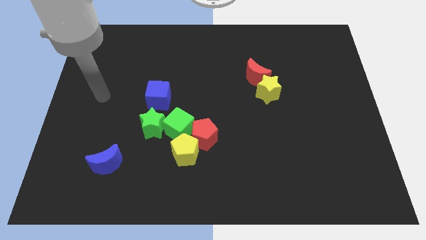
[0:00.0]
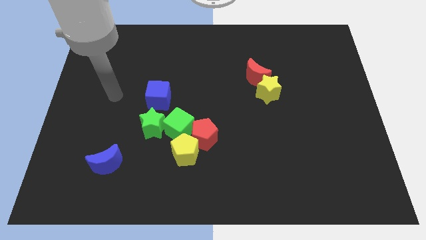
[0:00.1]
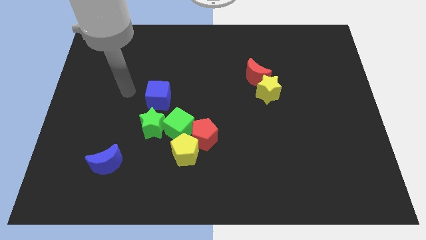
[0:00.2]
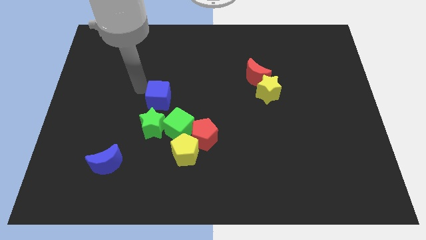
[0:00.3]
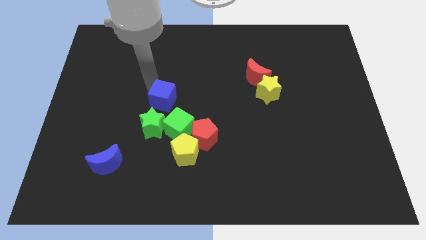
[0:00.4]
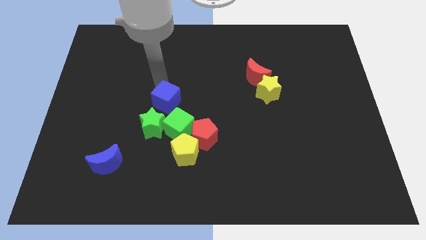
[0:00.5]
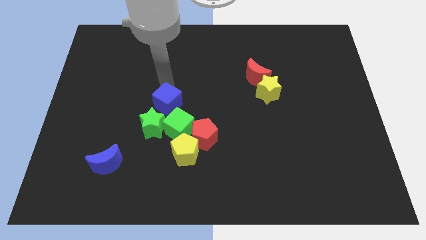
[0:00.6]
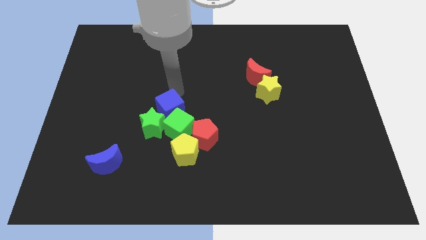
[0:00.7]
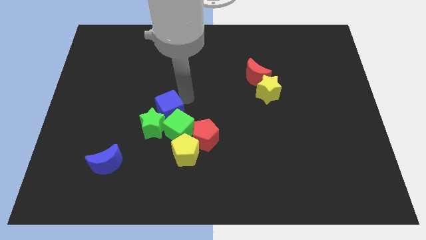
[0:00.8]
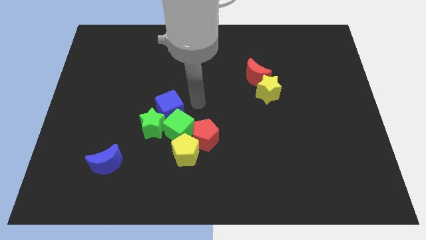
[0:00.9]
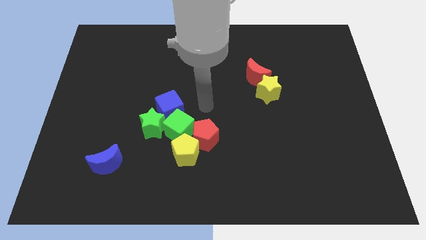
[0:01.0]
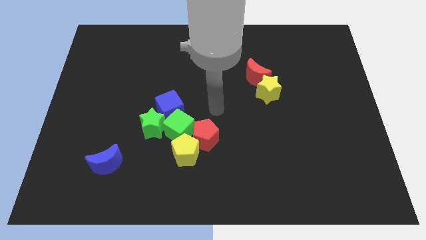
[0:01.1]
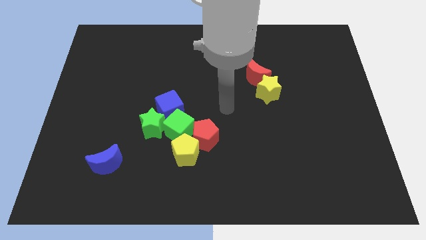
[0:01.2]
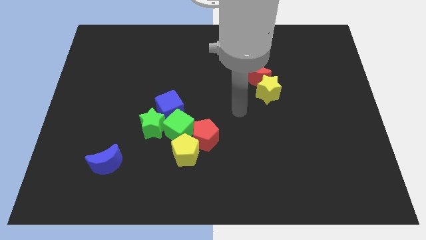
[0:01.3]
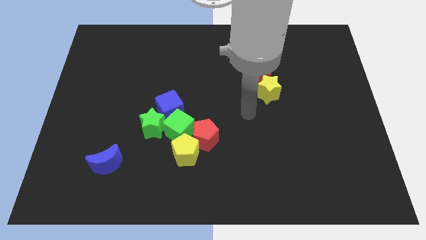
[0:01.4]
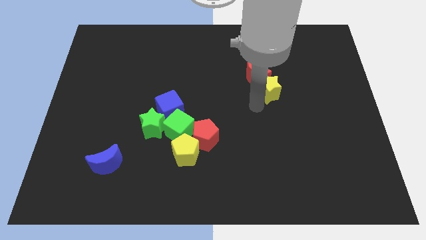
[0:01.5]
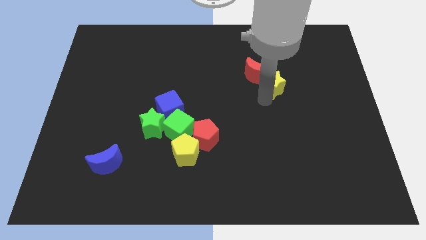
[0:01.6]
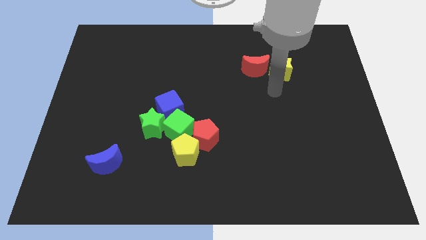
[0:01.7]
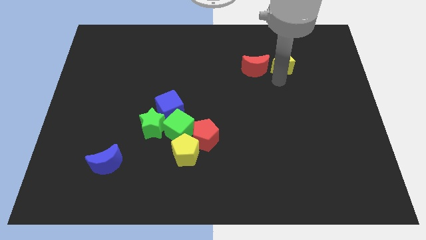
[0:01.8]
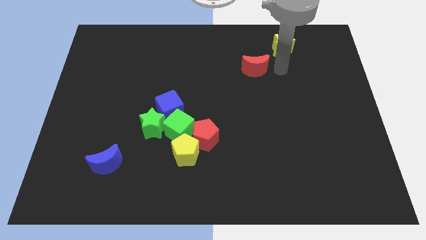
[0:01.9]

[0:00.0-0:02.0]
move the red moon away from the yellow star

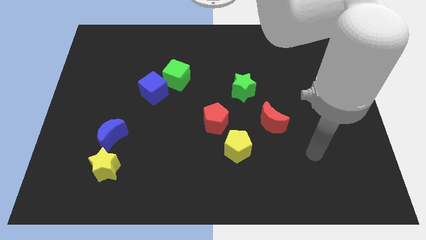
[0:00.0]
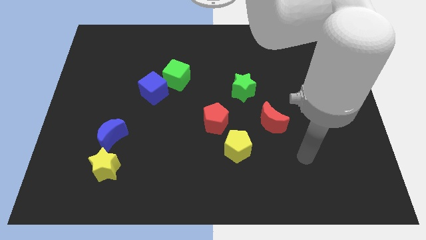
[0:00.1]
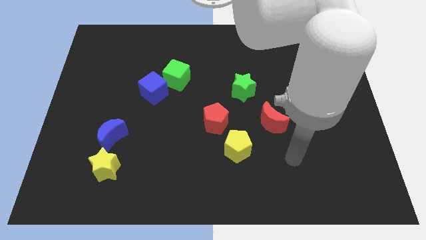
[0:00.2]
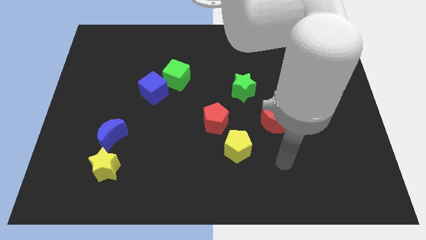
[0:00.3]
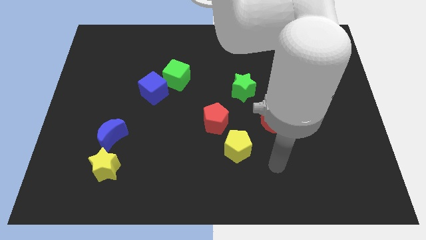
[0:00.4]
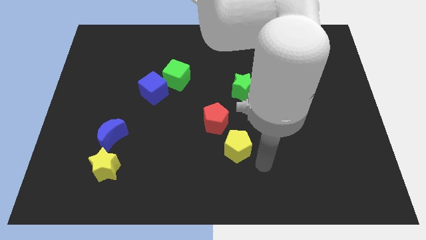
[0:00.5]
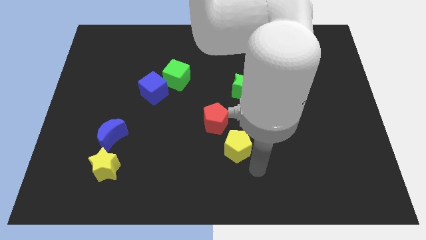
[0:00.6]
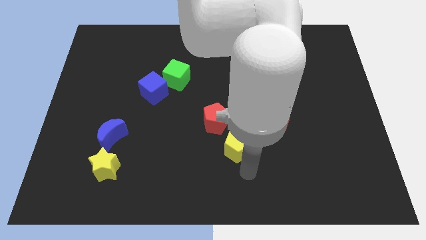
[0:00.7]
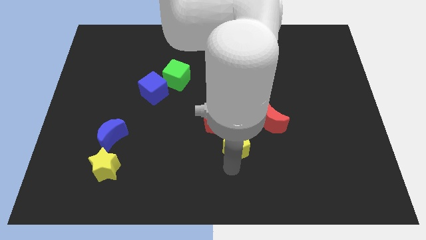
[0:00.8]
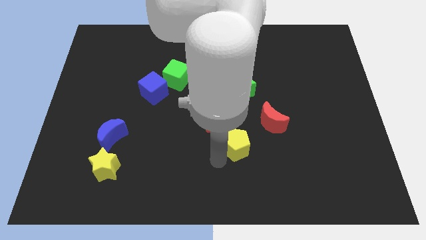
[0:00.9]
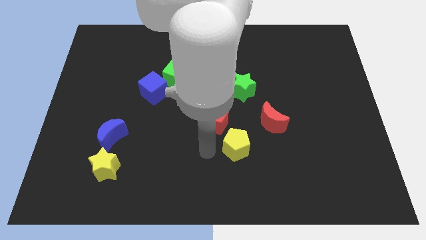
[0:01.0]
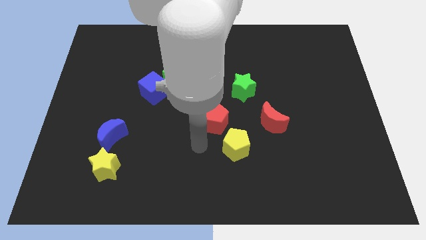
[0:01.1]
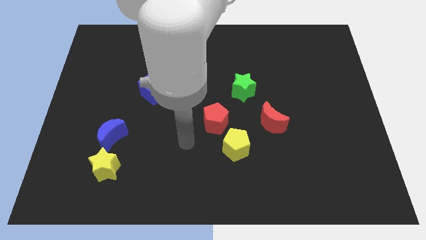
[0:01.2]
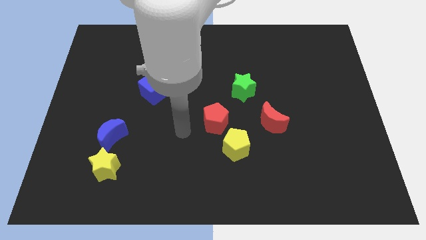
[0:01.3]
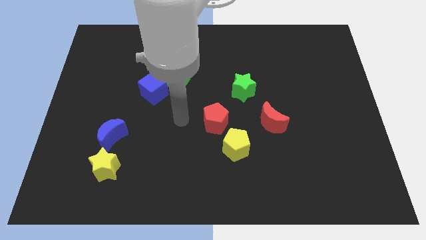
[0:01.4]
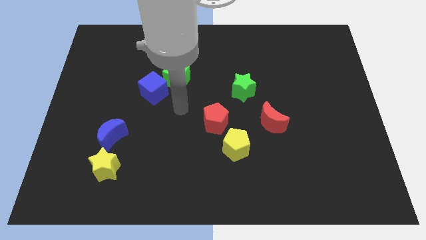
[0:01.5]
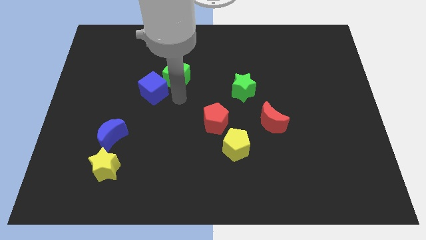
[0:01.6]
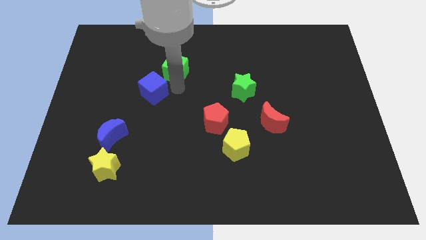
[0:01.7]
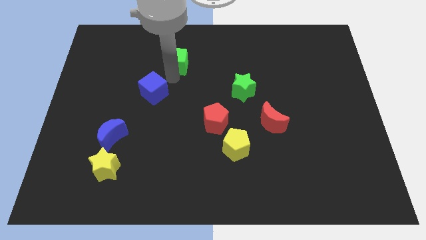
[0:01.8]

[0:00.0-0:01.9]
move the blue cube away from the green cube

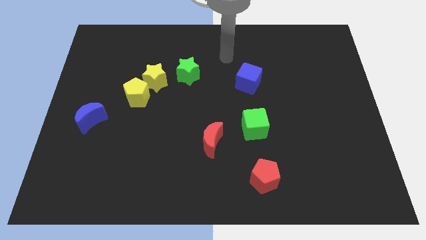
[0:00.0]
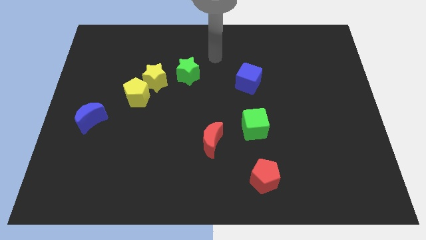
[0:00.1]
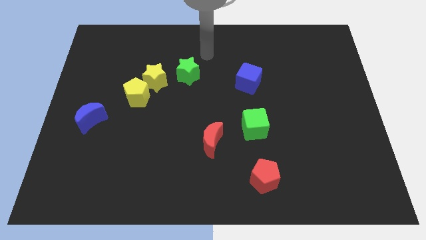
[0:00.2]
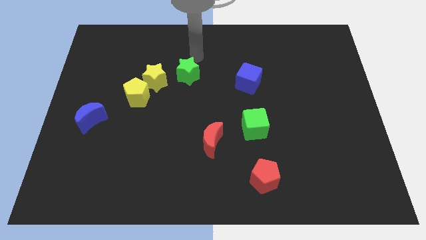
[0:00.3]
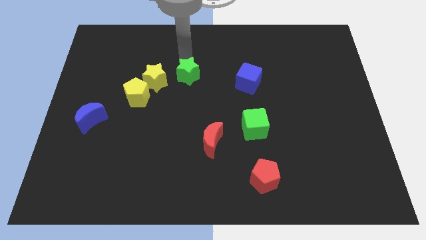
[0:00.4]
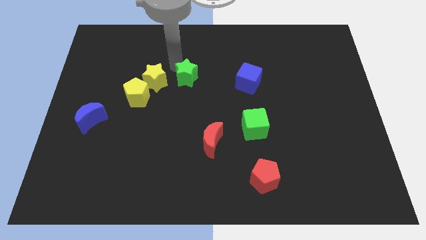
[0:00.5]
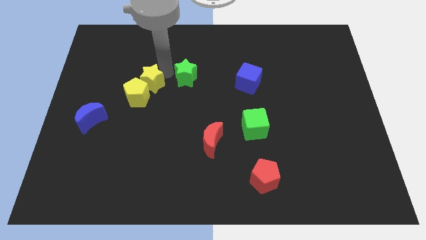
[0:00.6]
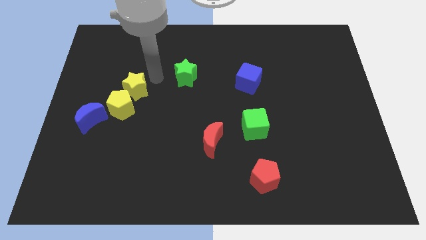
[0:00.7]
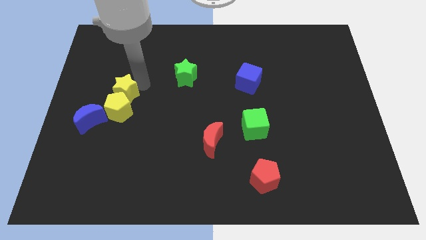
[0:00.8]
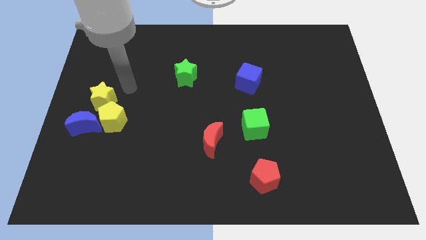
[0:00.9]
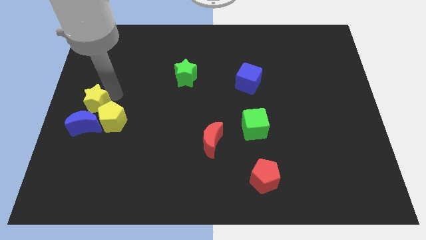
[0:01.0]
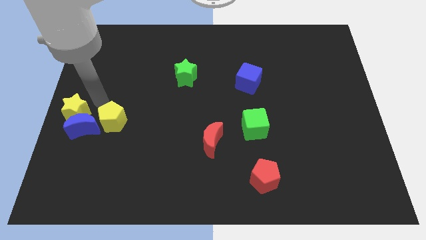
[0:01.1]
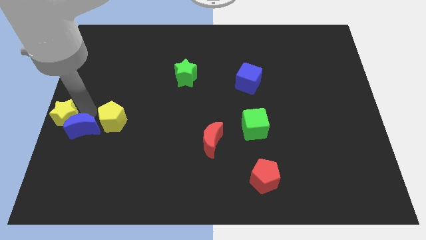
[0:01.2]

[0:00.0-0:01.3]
separate the yellow pentagon from the yellow star

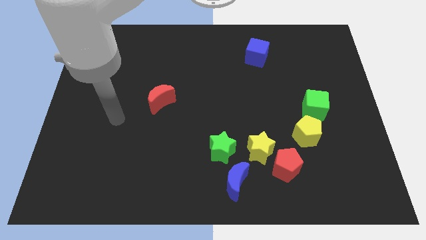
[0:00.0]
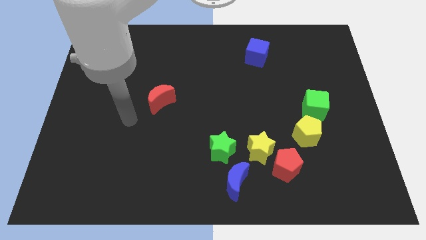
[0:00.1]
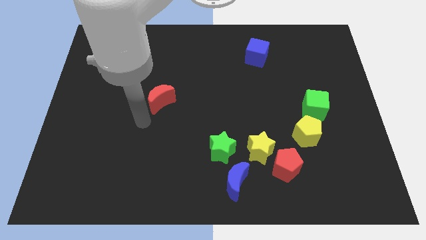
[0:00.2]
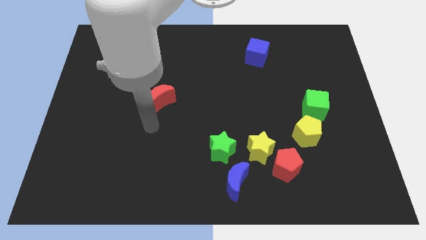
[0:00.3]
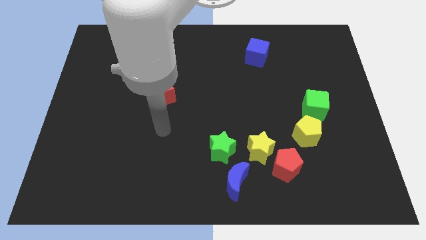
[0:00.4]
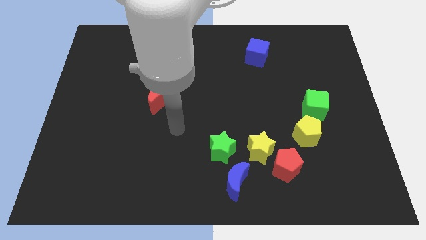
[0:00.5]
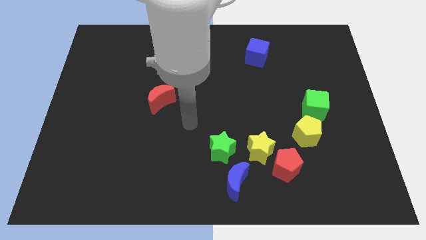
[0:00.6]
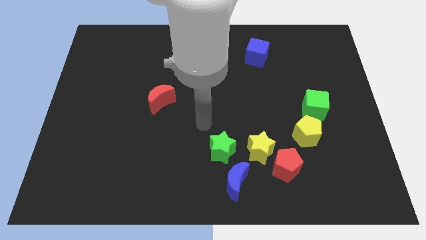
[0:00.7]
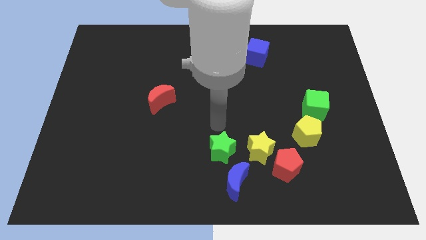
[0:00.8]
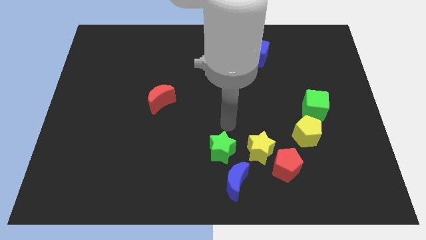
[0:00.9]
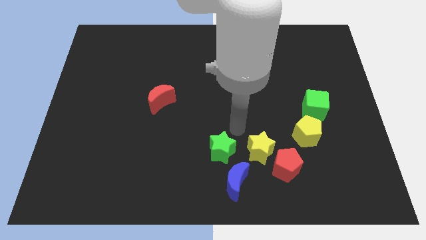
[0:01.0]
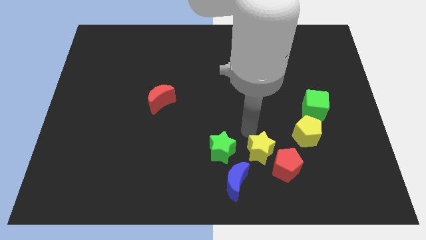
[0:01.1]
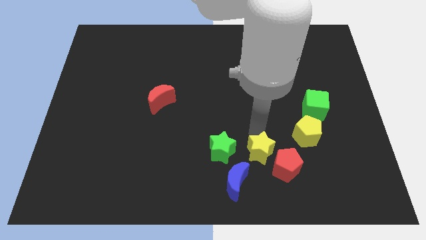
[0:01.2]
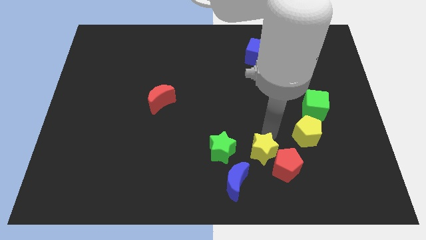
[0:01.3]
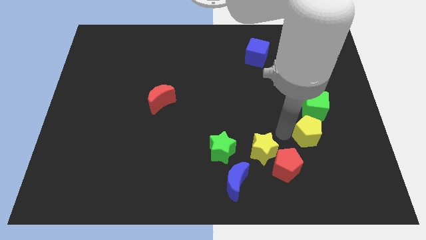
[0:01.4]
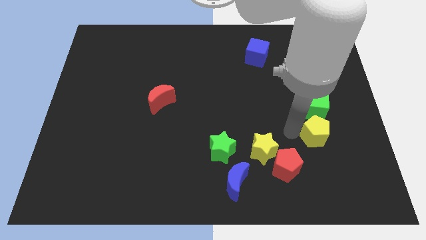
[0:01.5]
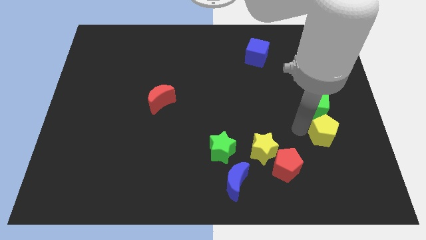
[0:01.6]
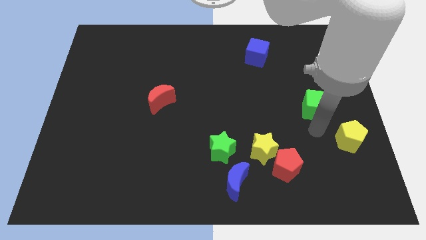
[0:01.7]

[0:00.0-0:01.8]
move the green cube away from the yellow pentagon

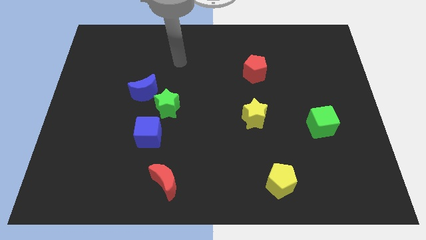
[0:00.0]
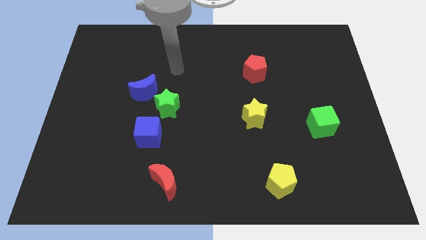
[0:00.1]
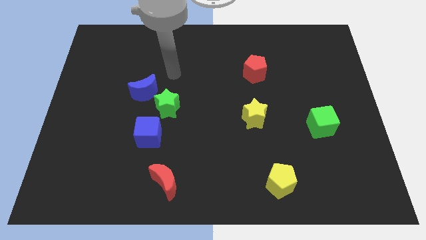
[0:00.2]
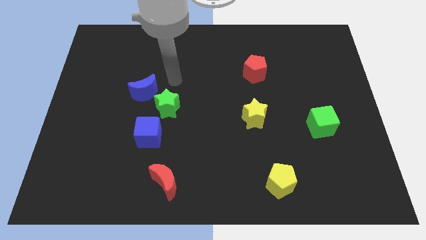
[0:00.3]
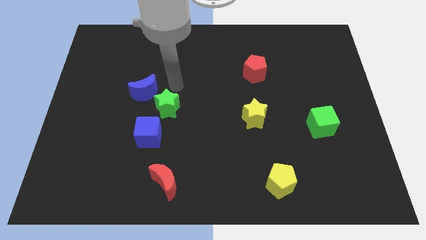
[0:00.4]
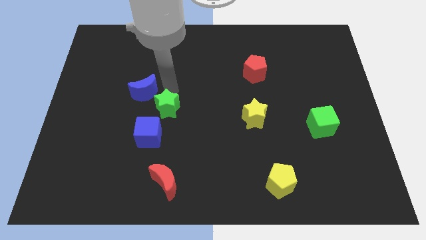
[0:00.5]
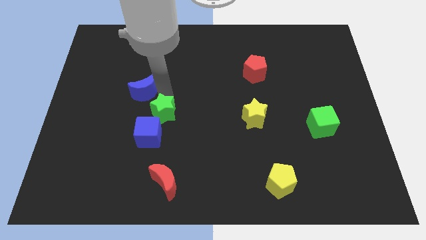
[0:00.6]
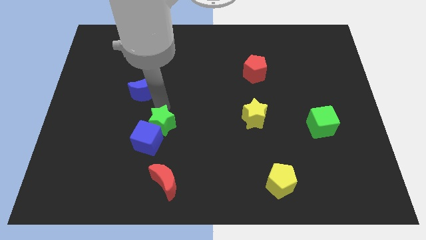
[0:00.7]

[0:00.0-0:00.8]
separate the blue moon from the green star

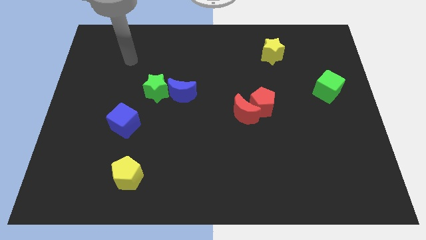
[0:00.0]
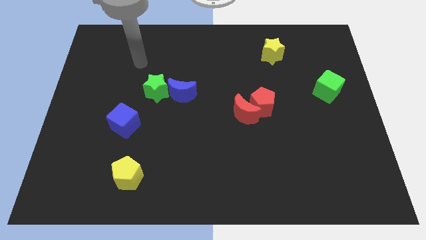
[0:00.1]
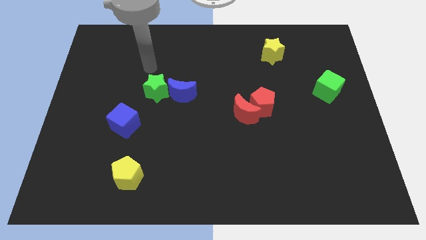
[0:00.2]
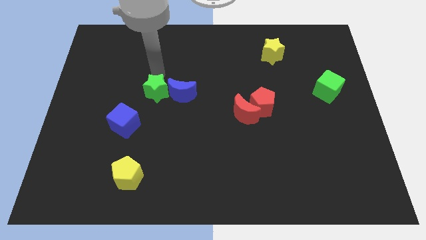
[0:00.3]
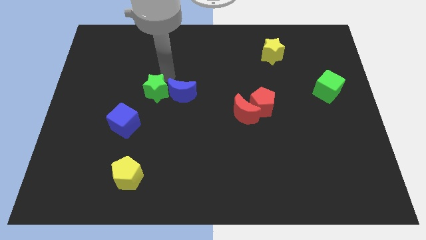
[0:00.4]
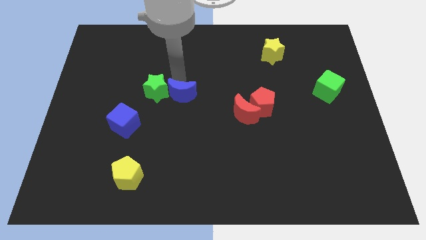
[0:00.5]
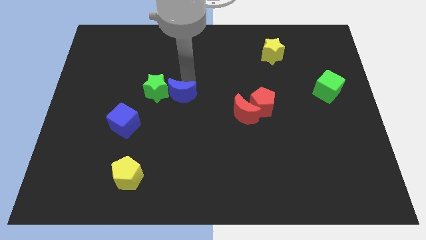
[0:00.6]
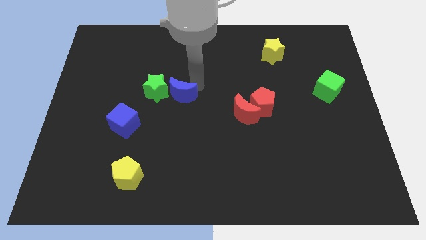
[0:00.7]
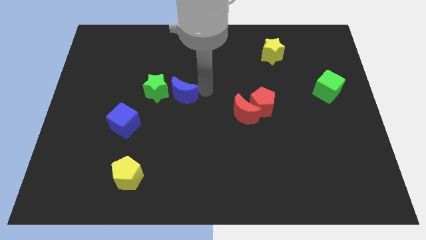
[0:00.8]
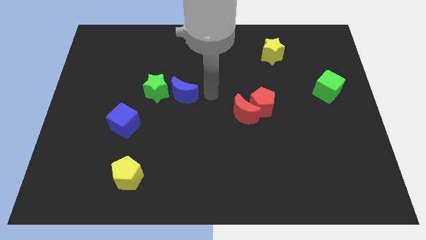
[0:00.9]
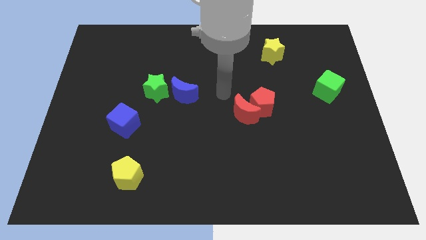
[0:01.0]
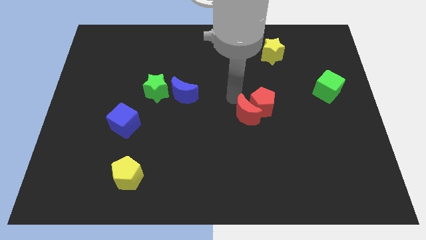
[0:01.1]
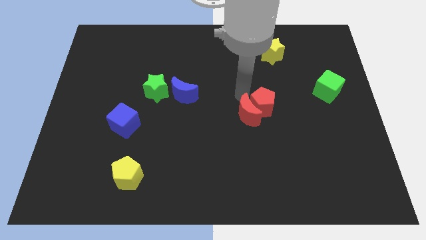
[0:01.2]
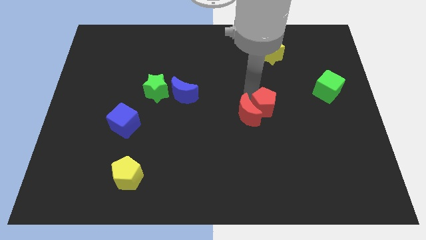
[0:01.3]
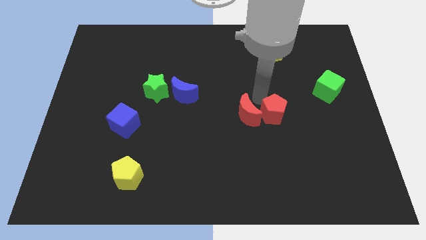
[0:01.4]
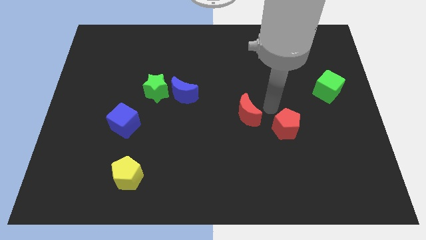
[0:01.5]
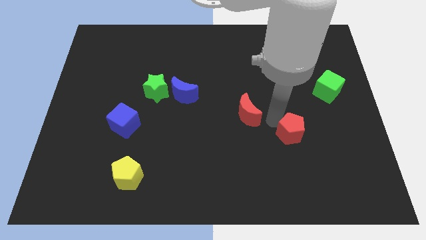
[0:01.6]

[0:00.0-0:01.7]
pull the red moon apart from the red pentagon
